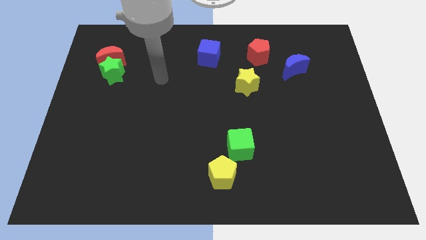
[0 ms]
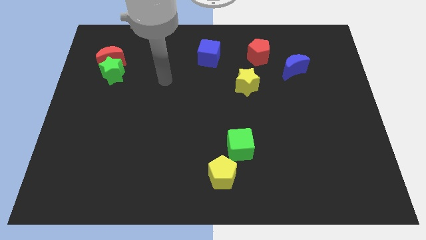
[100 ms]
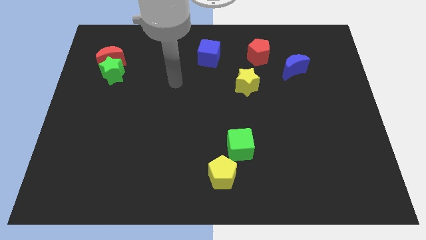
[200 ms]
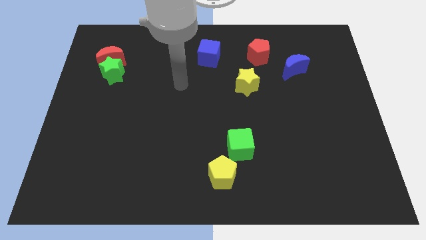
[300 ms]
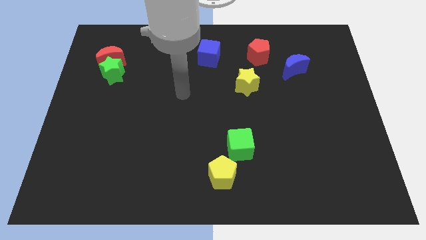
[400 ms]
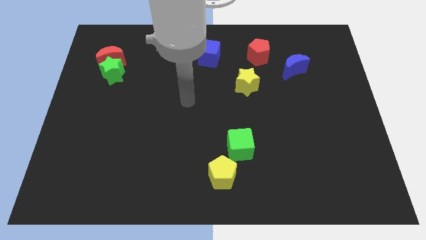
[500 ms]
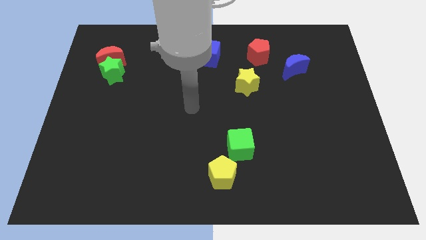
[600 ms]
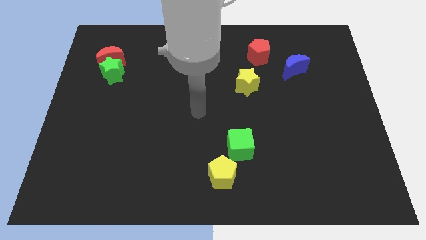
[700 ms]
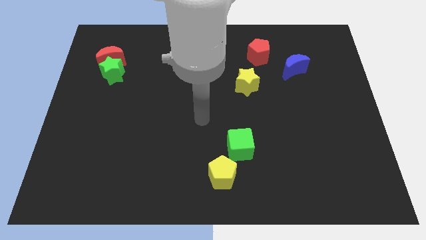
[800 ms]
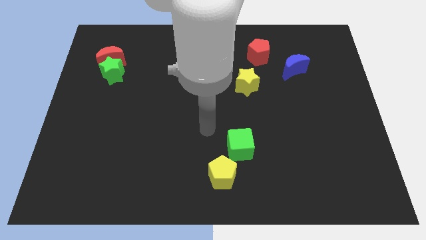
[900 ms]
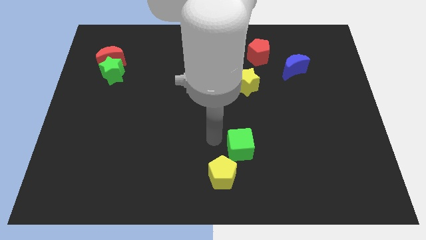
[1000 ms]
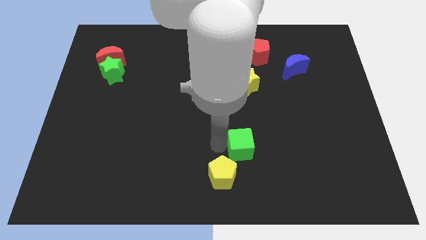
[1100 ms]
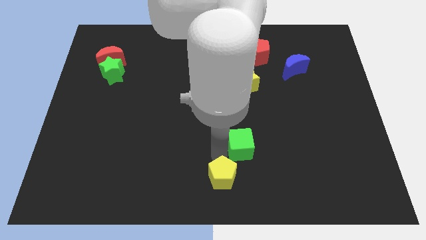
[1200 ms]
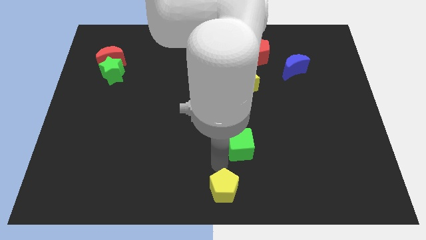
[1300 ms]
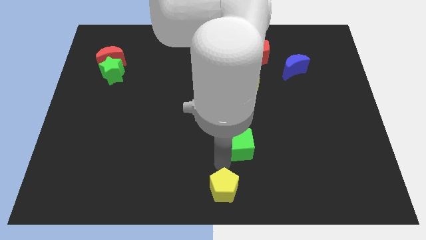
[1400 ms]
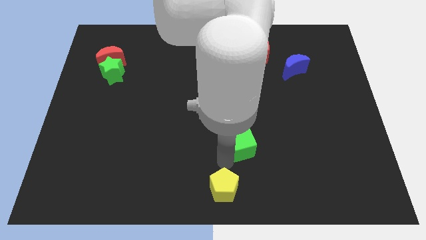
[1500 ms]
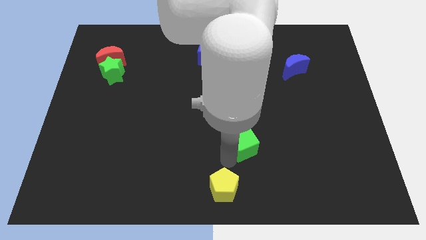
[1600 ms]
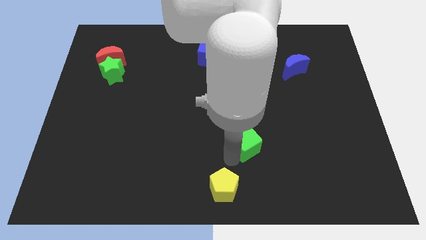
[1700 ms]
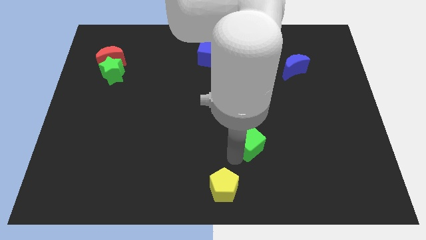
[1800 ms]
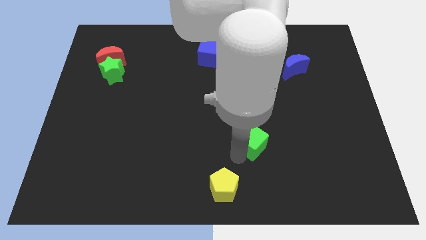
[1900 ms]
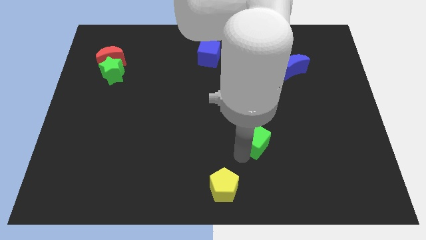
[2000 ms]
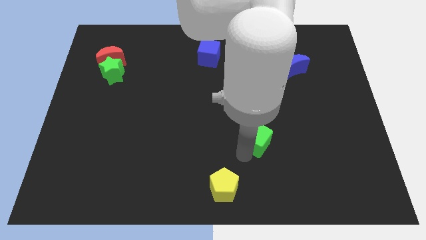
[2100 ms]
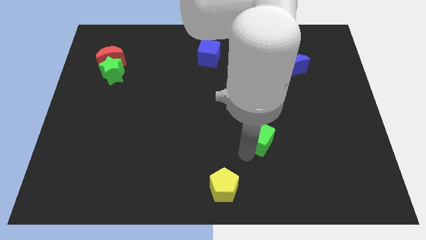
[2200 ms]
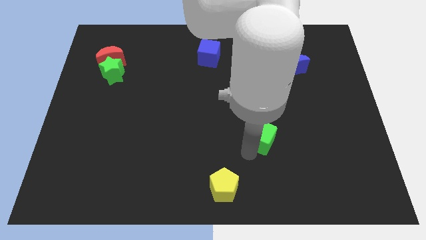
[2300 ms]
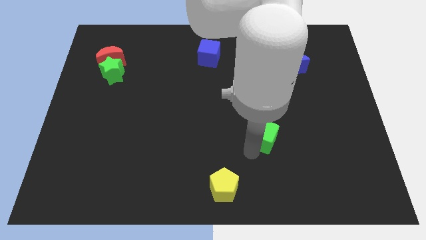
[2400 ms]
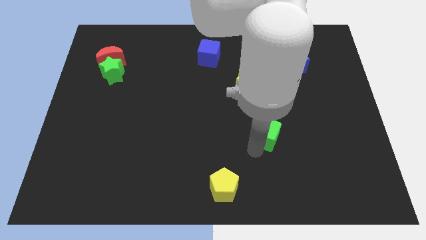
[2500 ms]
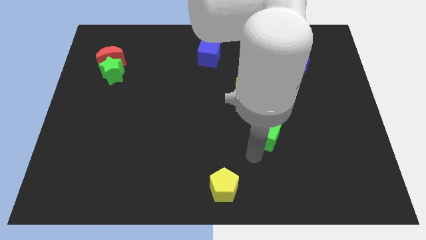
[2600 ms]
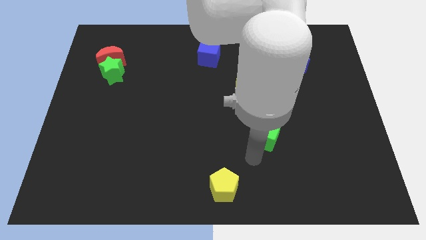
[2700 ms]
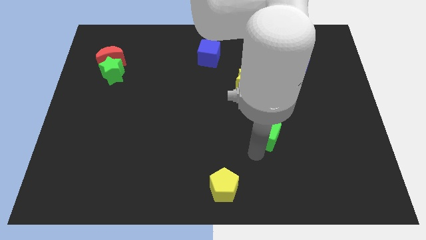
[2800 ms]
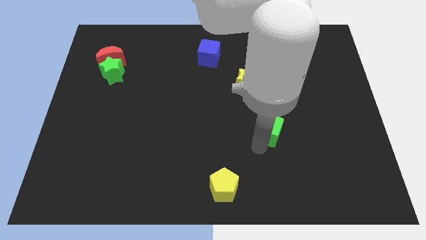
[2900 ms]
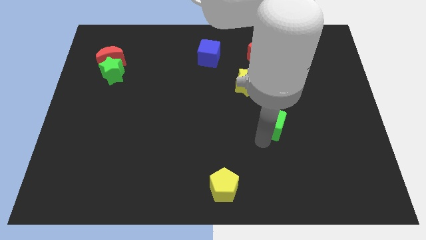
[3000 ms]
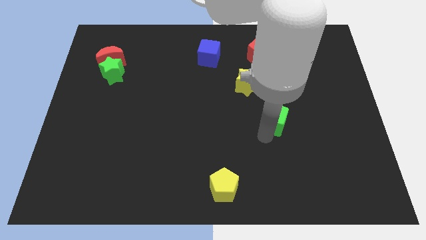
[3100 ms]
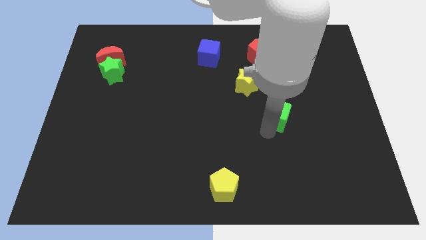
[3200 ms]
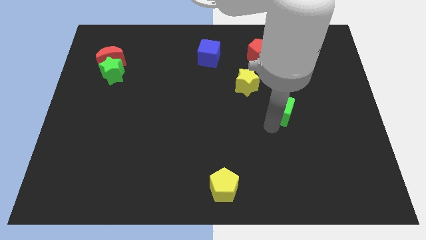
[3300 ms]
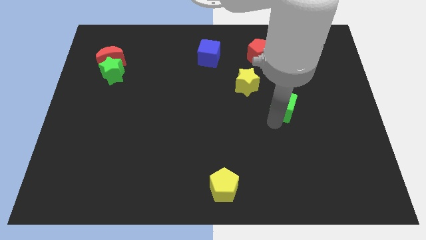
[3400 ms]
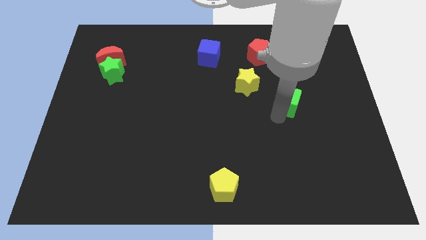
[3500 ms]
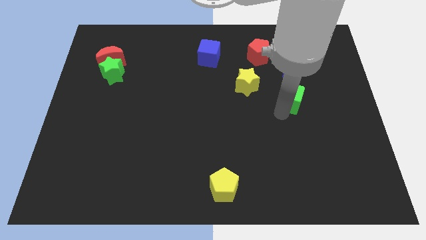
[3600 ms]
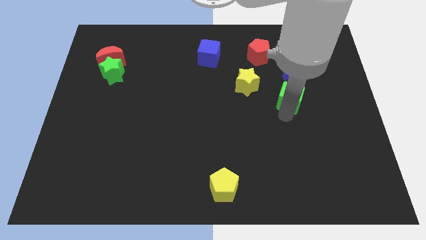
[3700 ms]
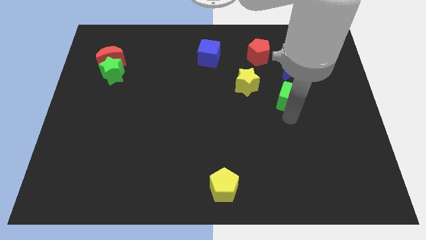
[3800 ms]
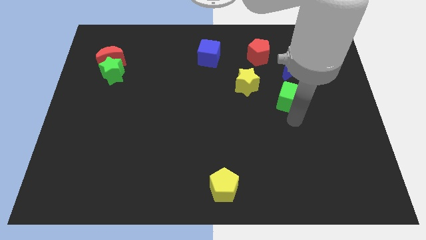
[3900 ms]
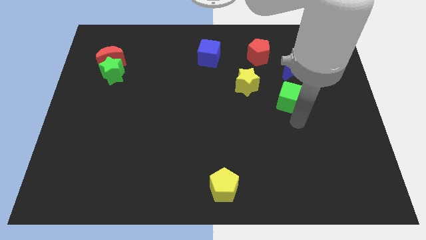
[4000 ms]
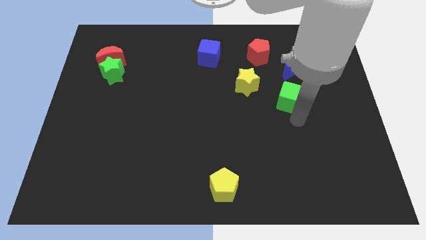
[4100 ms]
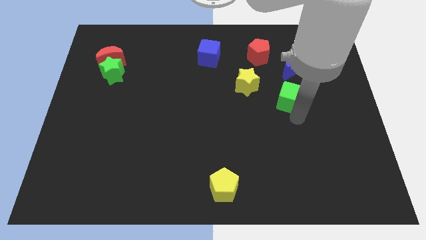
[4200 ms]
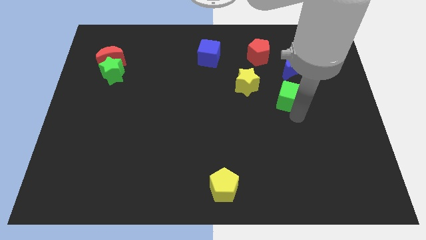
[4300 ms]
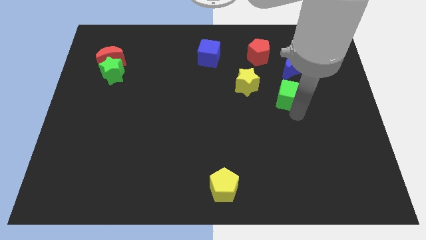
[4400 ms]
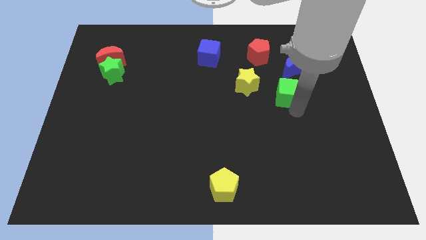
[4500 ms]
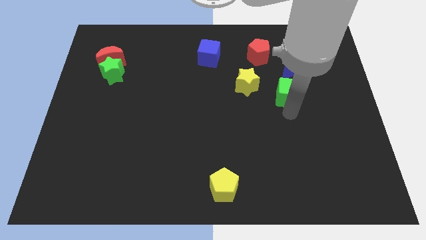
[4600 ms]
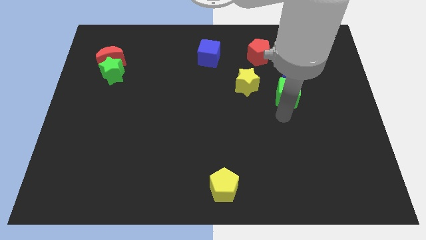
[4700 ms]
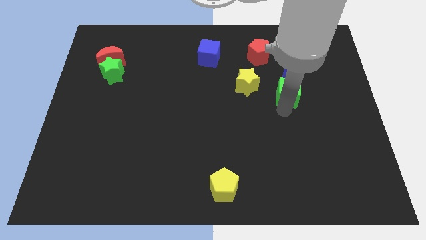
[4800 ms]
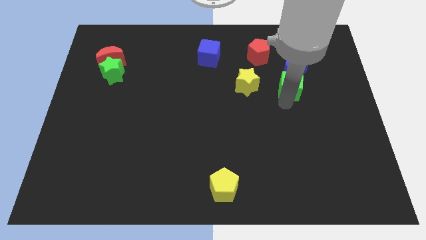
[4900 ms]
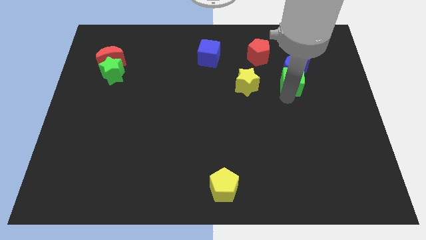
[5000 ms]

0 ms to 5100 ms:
slide the green cube close to the blue moon

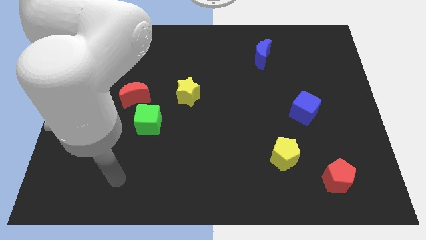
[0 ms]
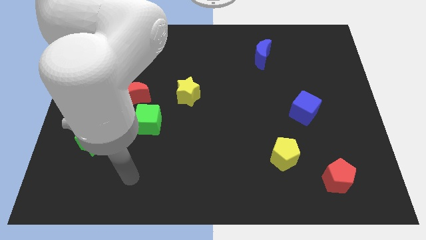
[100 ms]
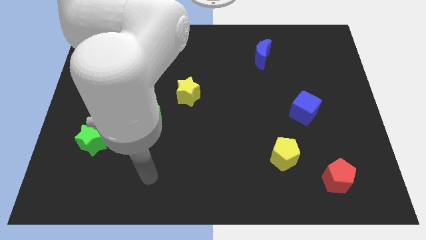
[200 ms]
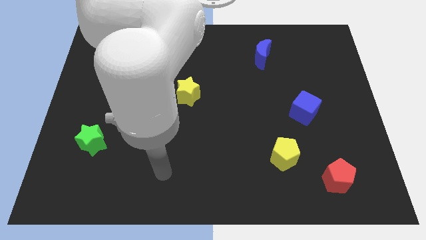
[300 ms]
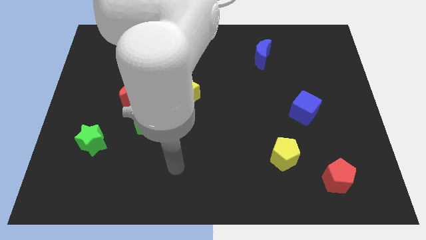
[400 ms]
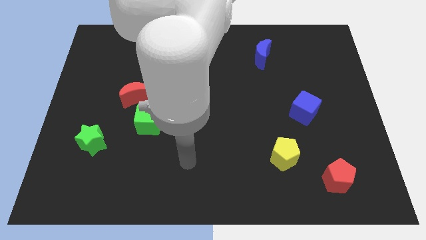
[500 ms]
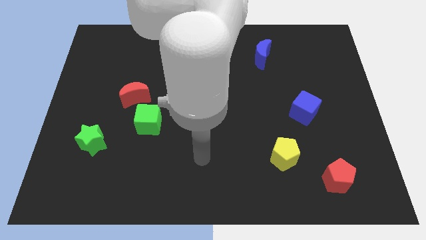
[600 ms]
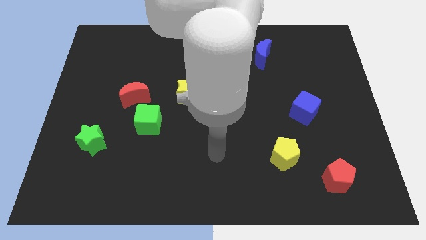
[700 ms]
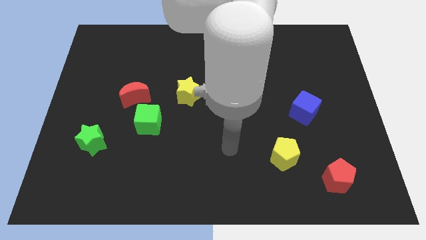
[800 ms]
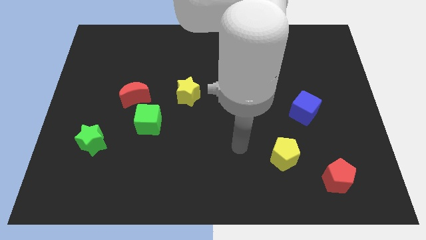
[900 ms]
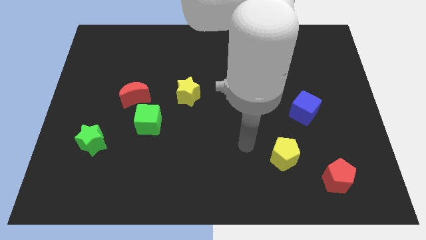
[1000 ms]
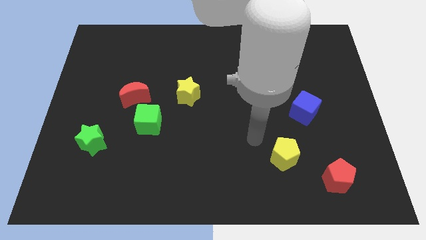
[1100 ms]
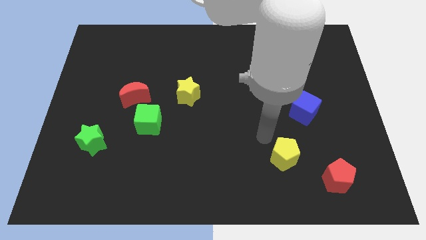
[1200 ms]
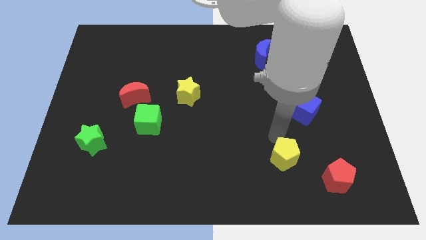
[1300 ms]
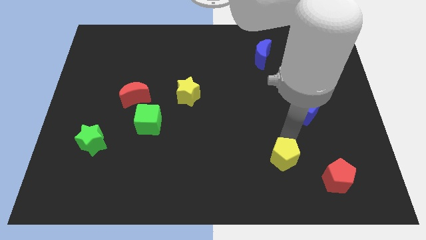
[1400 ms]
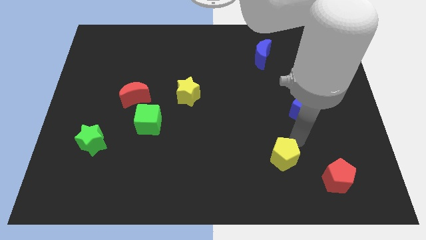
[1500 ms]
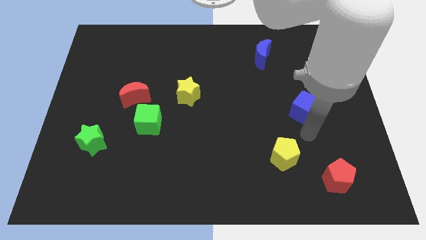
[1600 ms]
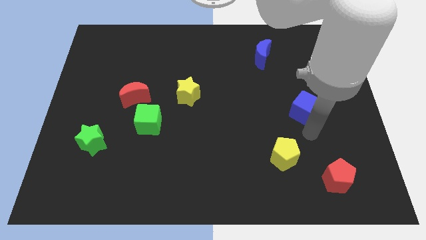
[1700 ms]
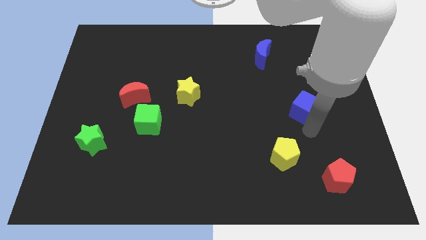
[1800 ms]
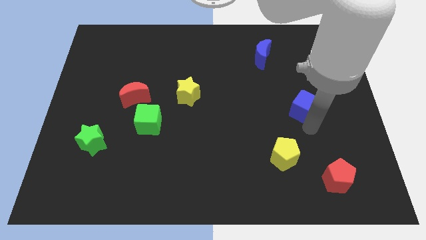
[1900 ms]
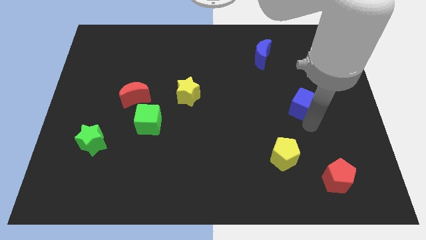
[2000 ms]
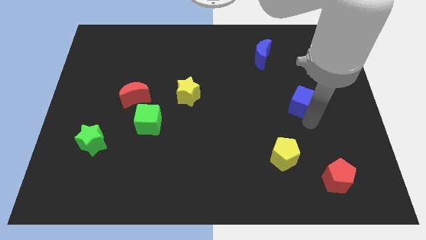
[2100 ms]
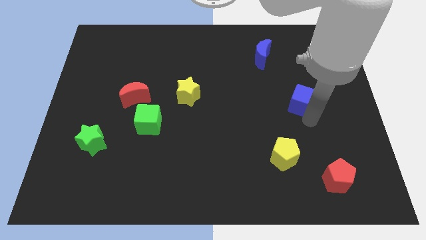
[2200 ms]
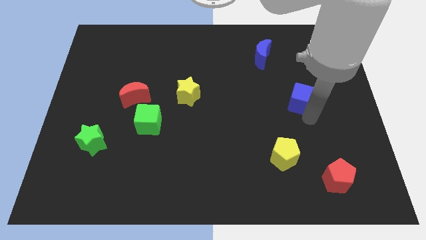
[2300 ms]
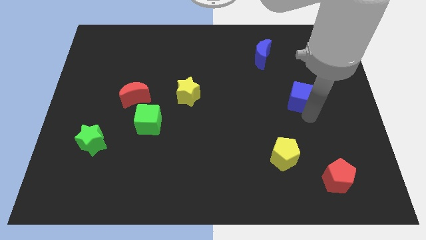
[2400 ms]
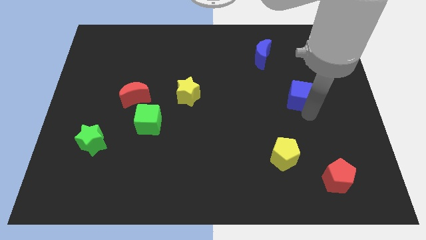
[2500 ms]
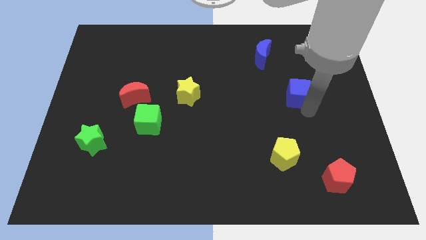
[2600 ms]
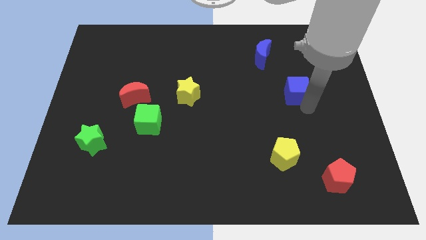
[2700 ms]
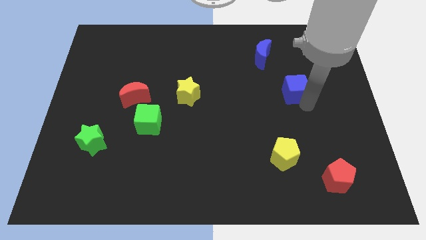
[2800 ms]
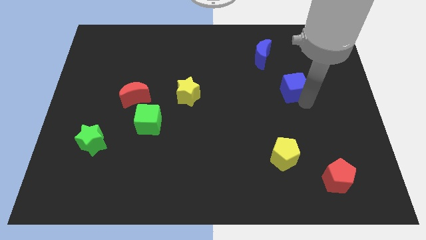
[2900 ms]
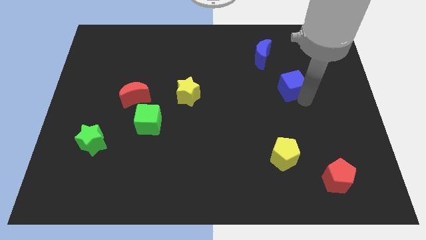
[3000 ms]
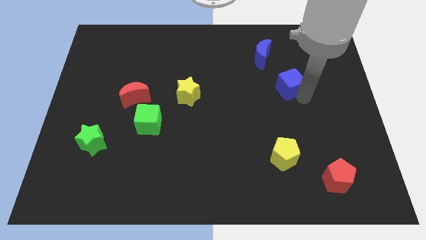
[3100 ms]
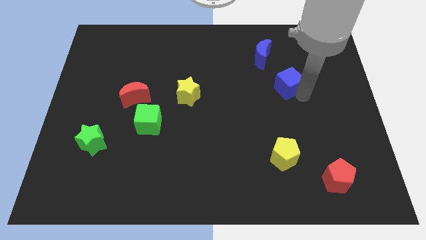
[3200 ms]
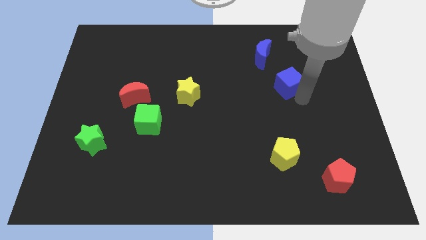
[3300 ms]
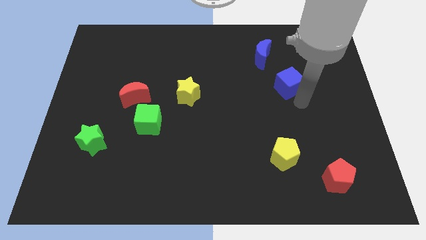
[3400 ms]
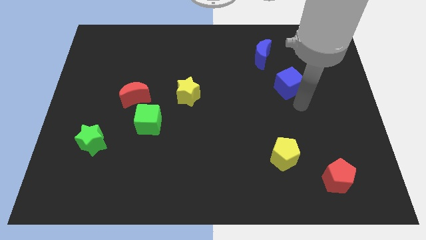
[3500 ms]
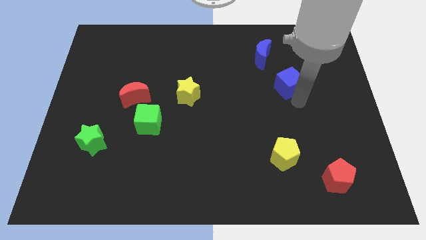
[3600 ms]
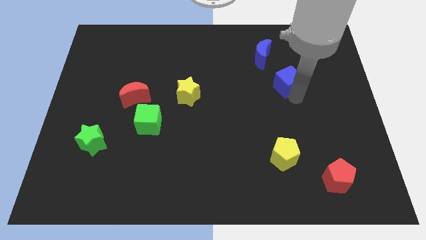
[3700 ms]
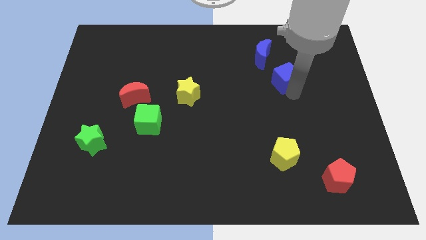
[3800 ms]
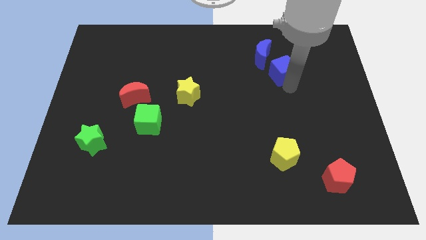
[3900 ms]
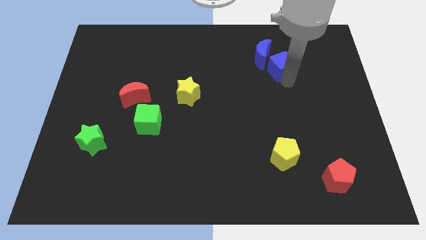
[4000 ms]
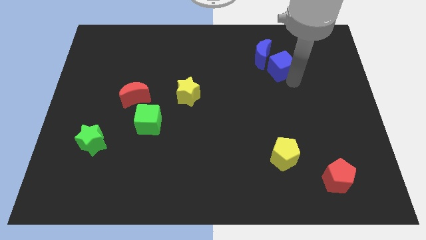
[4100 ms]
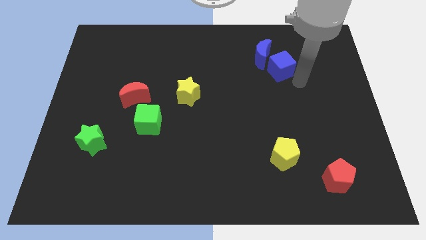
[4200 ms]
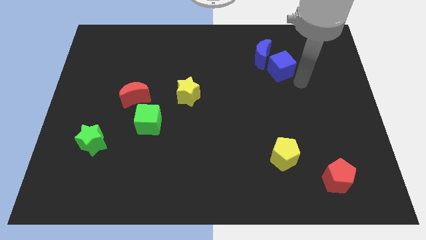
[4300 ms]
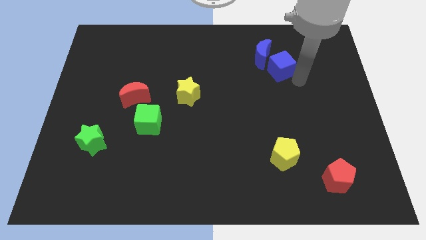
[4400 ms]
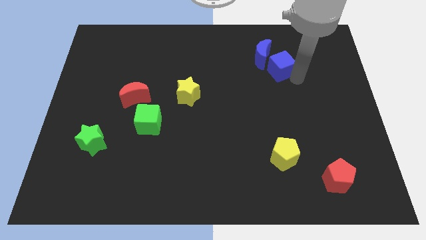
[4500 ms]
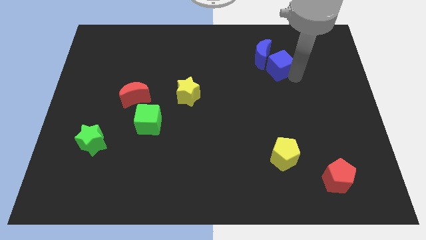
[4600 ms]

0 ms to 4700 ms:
put the blue cube towards the blue moon
